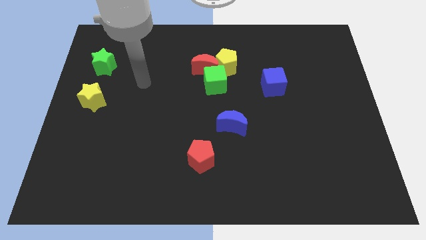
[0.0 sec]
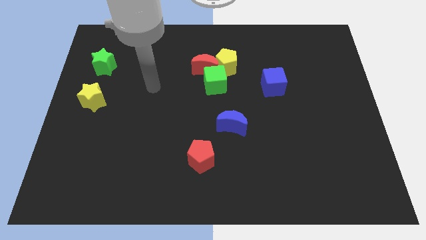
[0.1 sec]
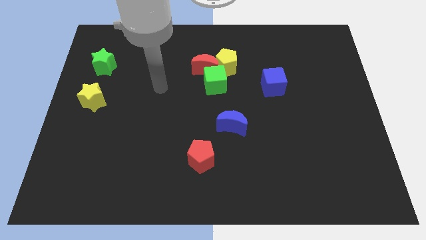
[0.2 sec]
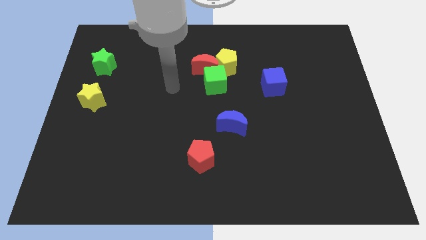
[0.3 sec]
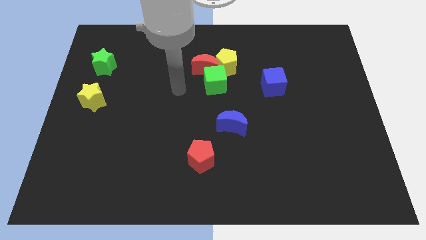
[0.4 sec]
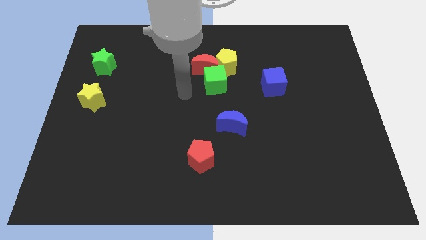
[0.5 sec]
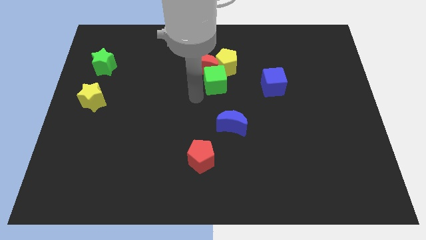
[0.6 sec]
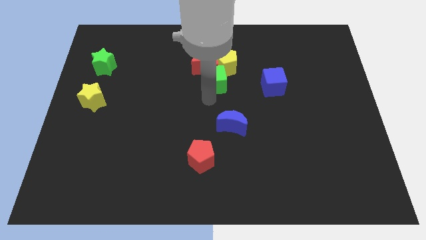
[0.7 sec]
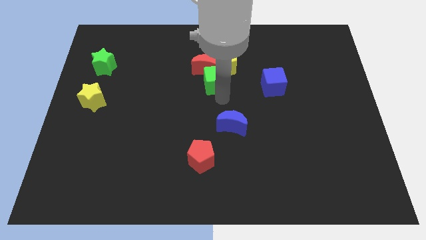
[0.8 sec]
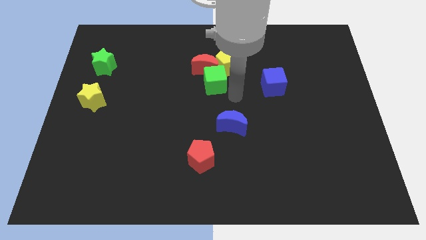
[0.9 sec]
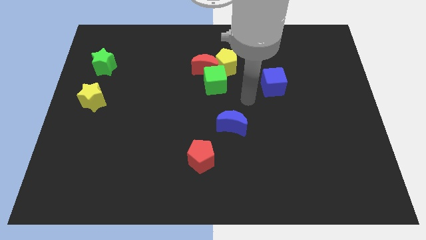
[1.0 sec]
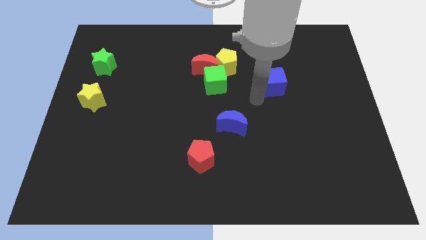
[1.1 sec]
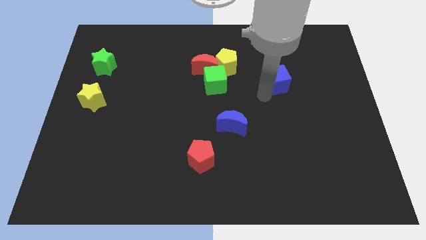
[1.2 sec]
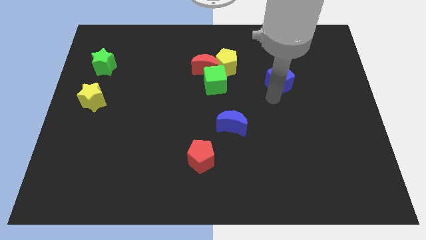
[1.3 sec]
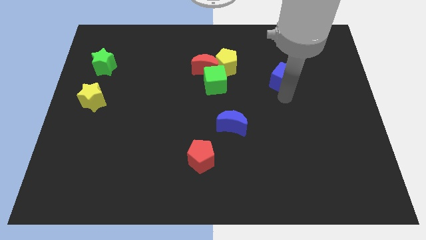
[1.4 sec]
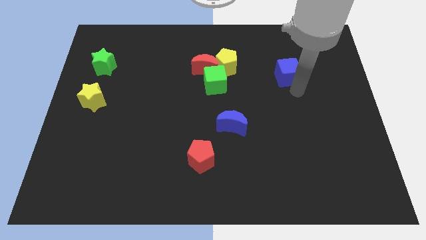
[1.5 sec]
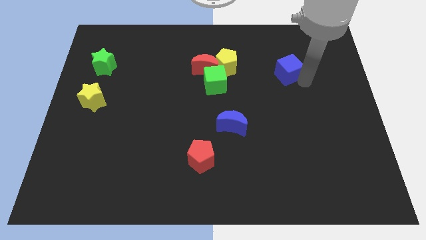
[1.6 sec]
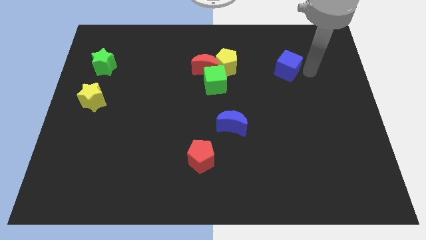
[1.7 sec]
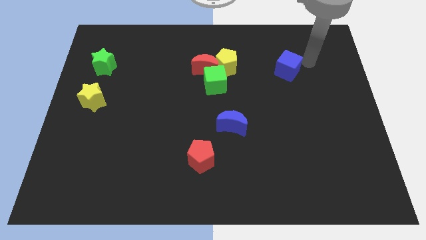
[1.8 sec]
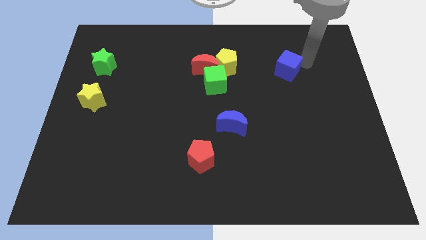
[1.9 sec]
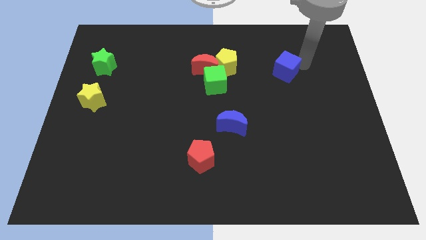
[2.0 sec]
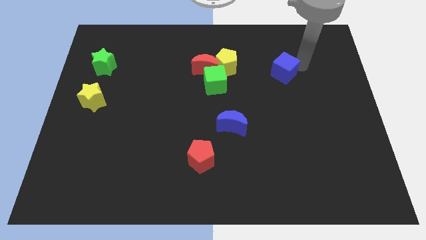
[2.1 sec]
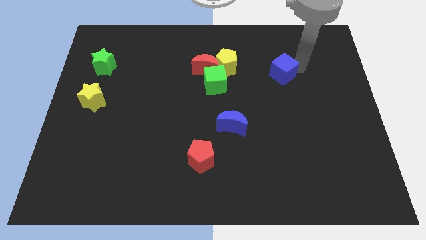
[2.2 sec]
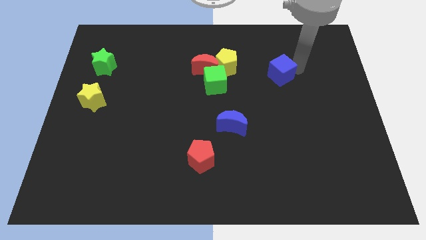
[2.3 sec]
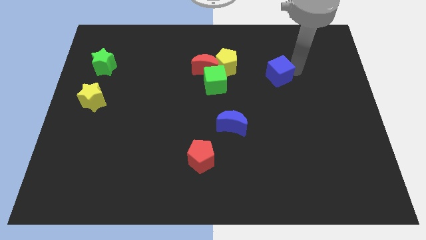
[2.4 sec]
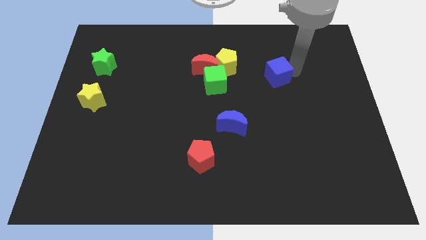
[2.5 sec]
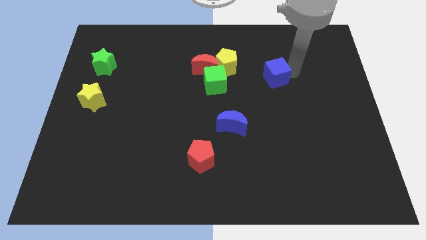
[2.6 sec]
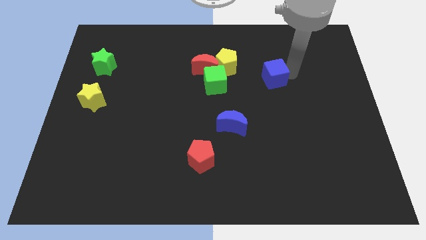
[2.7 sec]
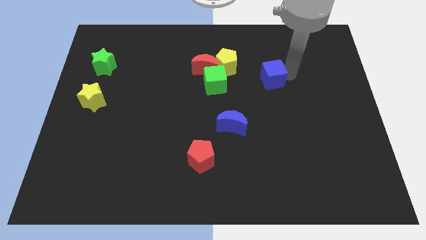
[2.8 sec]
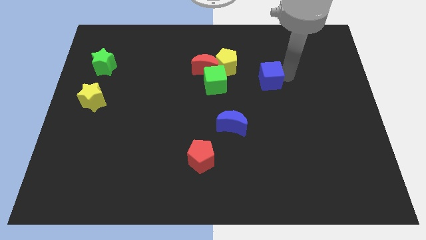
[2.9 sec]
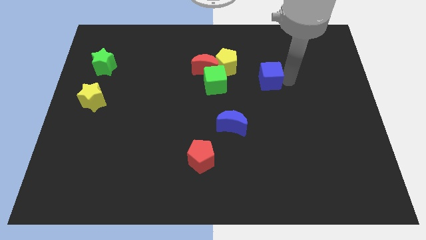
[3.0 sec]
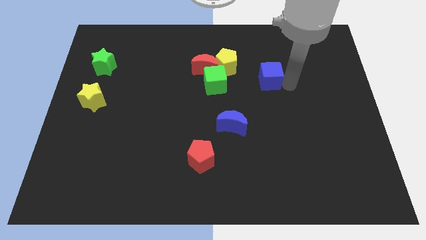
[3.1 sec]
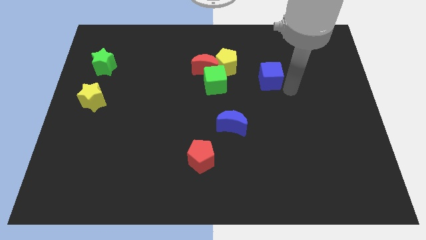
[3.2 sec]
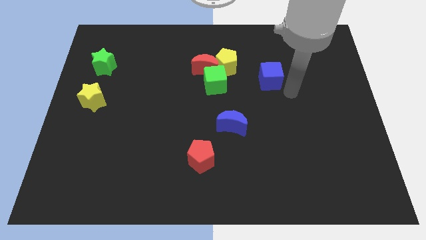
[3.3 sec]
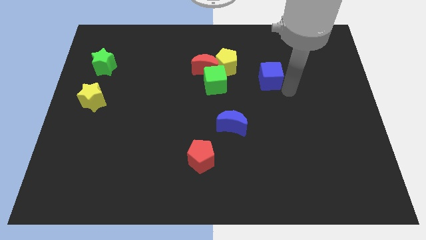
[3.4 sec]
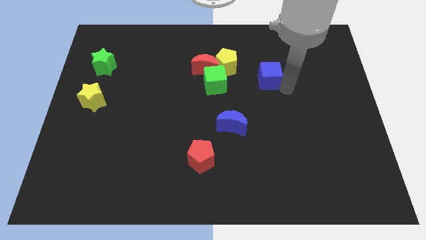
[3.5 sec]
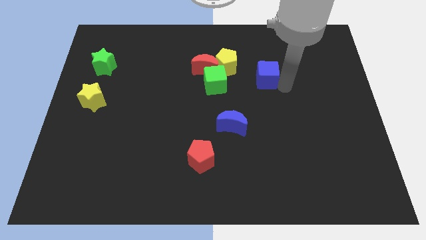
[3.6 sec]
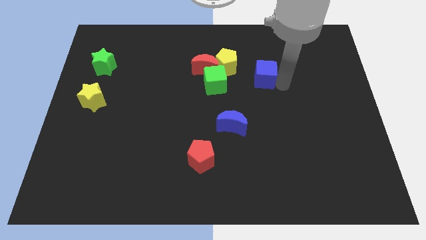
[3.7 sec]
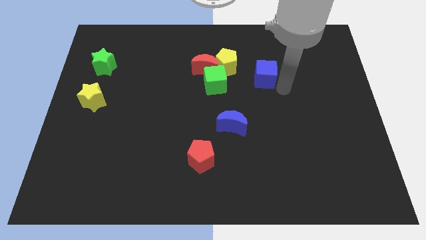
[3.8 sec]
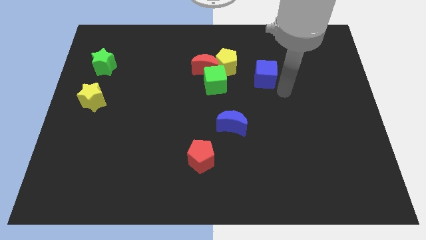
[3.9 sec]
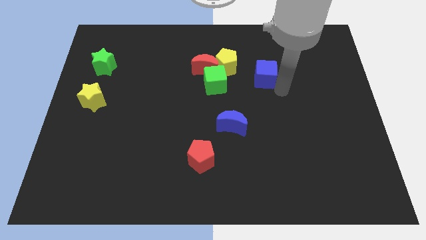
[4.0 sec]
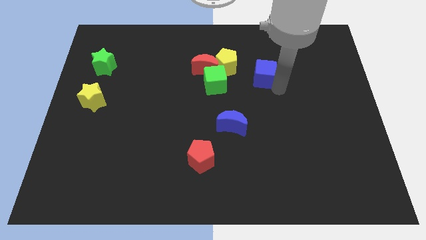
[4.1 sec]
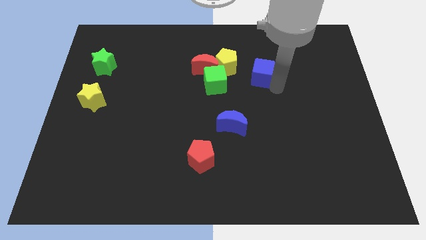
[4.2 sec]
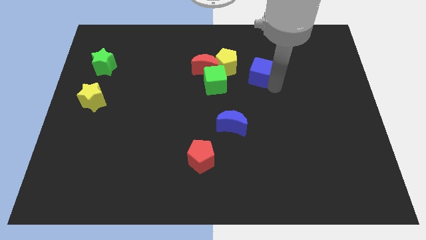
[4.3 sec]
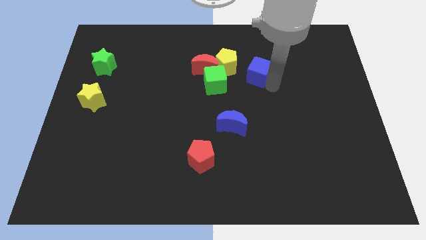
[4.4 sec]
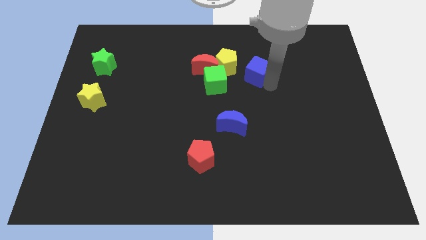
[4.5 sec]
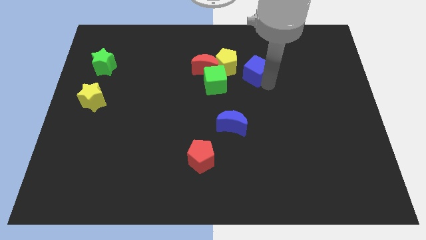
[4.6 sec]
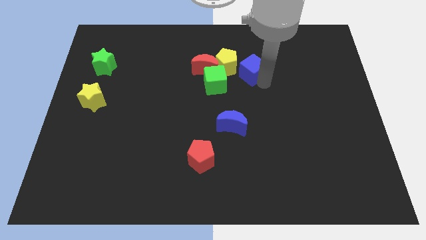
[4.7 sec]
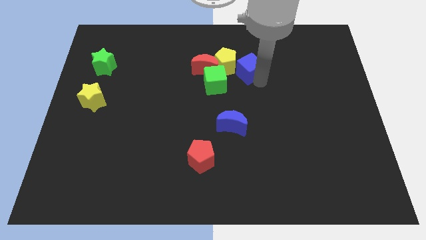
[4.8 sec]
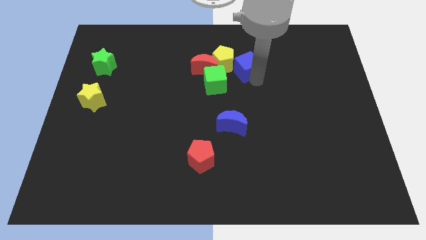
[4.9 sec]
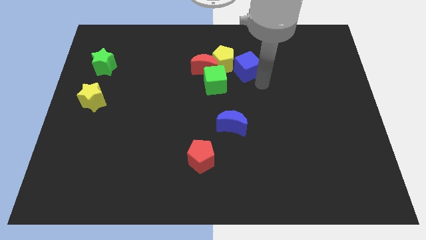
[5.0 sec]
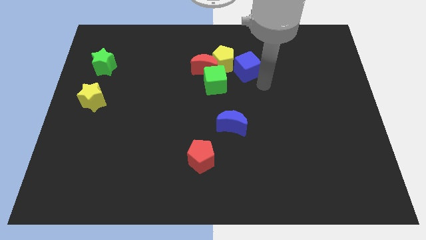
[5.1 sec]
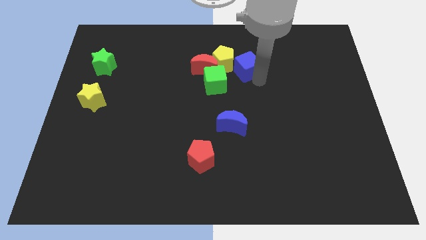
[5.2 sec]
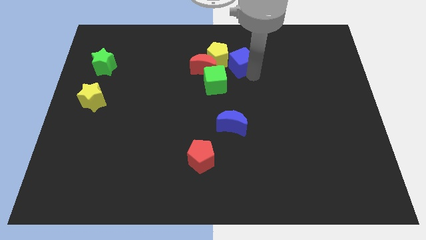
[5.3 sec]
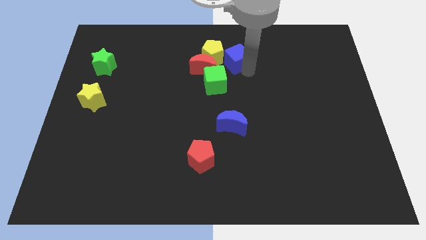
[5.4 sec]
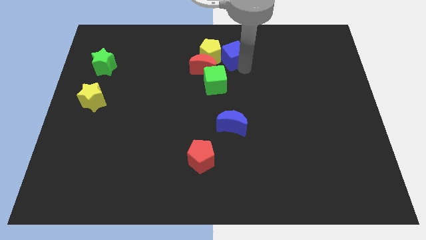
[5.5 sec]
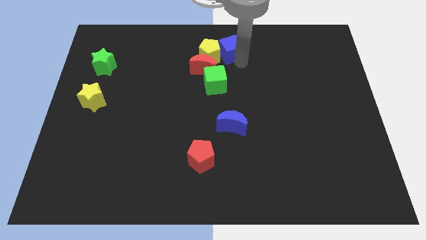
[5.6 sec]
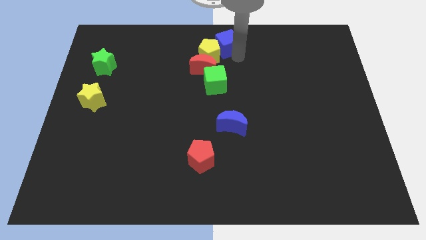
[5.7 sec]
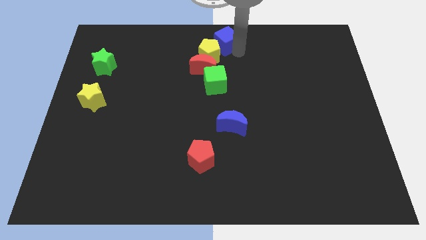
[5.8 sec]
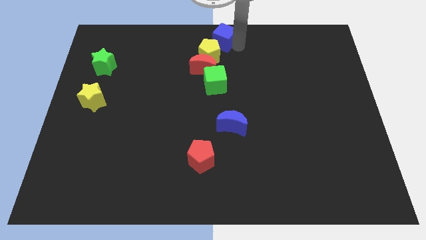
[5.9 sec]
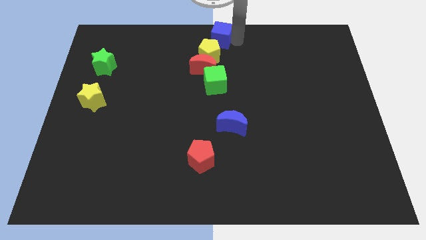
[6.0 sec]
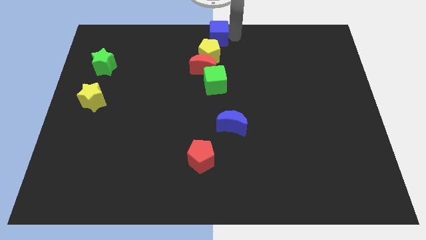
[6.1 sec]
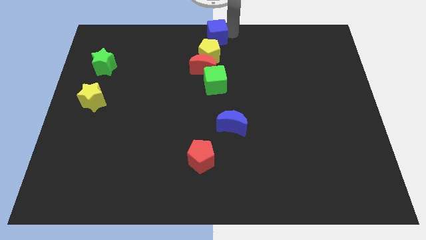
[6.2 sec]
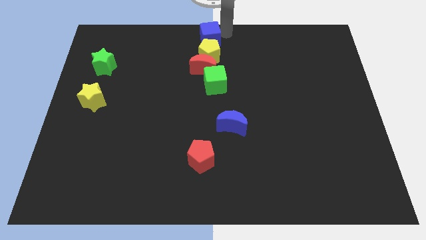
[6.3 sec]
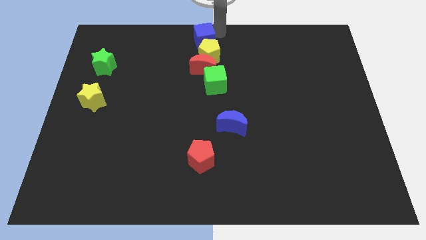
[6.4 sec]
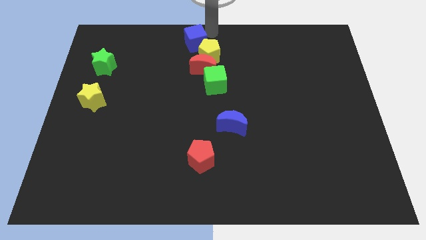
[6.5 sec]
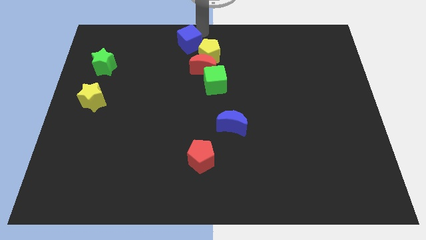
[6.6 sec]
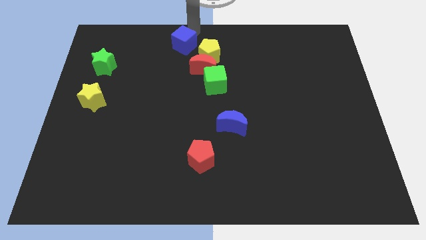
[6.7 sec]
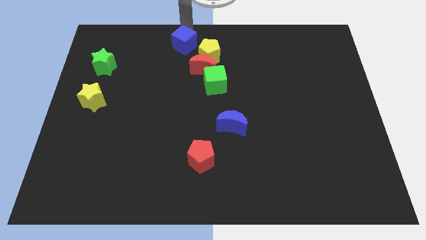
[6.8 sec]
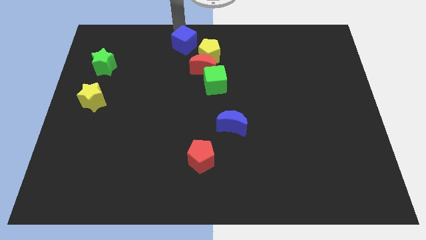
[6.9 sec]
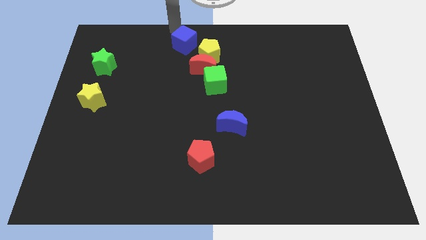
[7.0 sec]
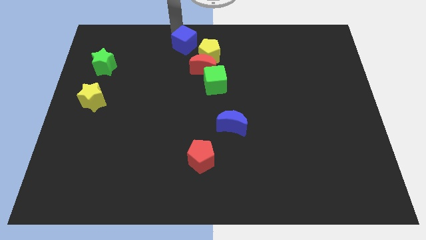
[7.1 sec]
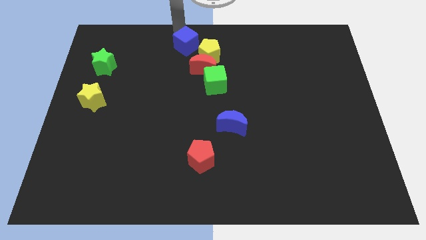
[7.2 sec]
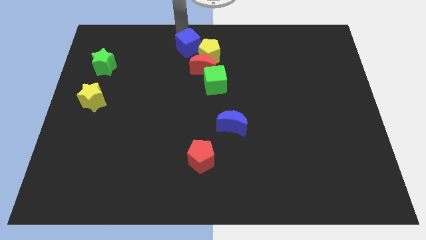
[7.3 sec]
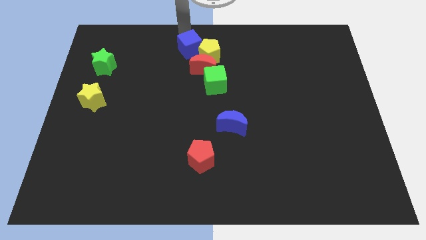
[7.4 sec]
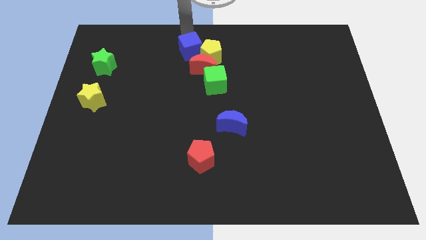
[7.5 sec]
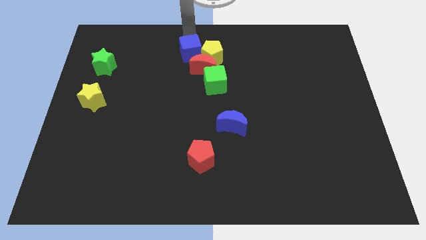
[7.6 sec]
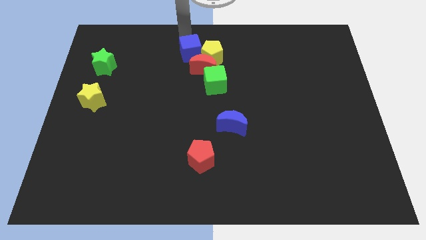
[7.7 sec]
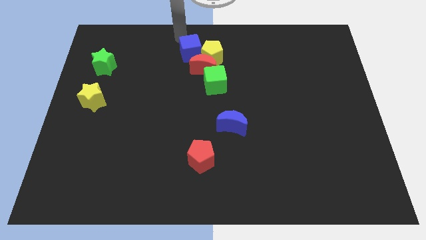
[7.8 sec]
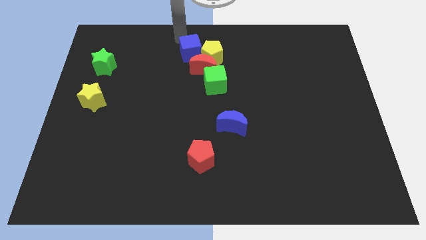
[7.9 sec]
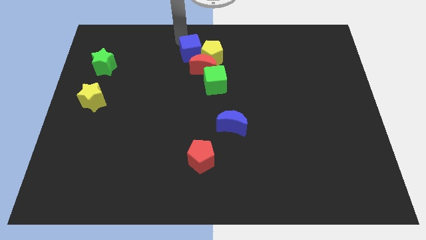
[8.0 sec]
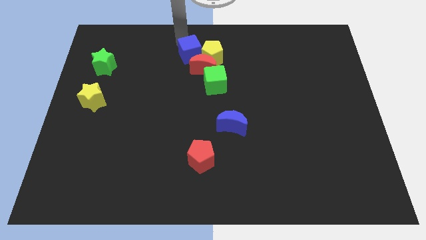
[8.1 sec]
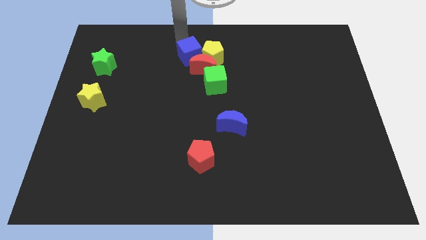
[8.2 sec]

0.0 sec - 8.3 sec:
slide the blue cube towards the red moon
